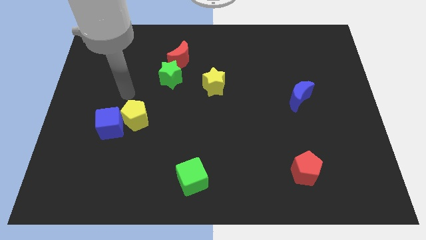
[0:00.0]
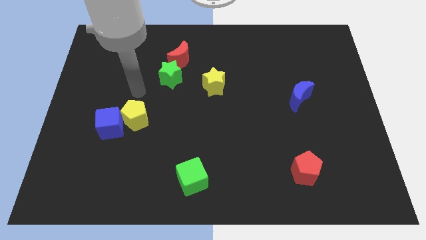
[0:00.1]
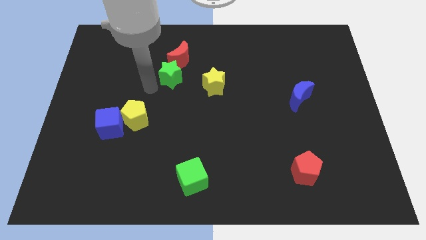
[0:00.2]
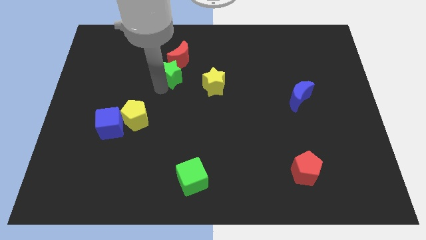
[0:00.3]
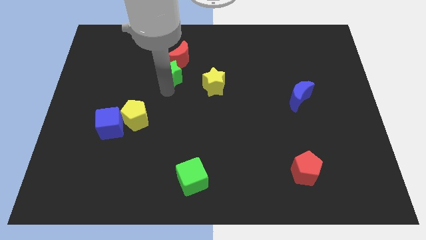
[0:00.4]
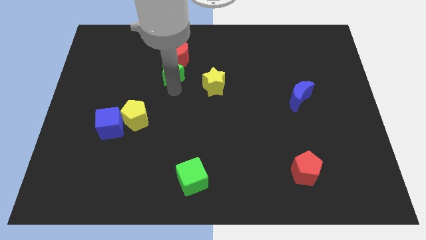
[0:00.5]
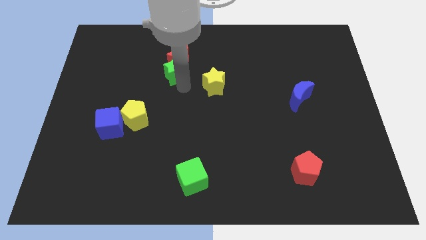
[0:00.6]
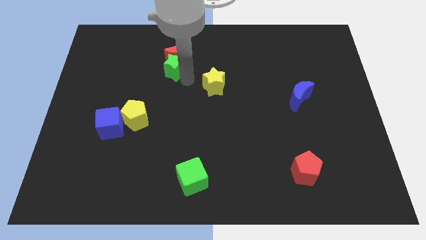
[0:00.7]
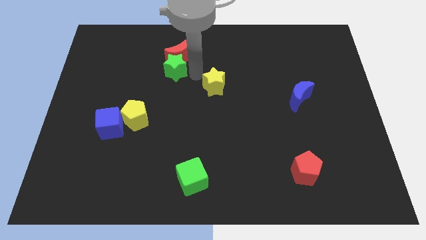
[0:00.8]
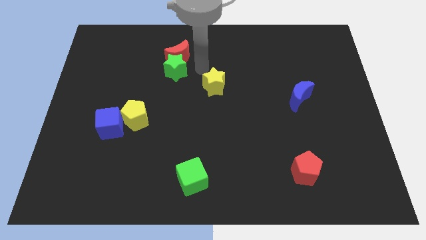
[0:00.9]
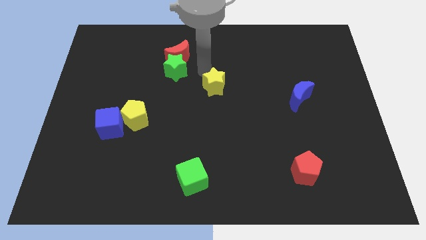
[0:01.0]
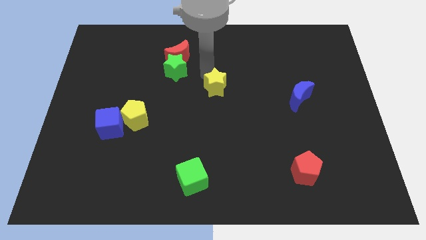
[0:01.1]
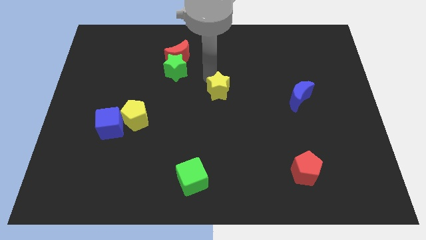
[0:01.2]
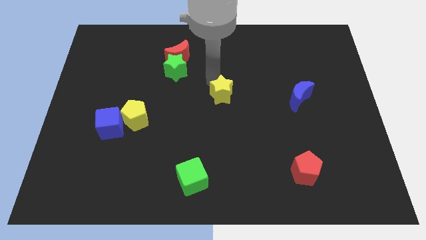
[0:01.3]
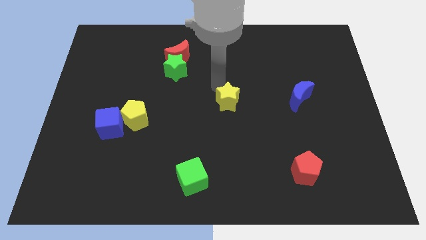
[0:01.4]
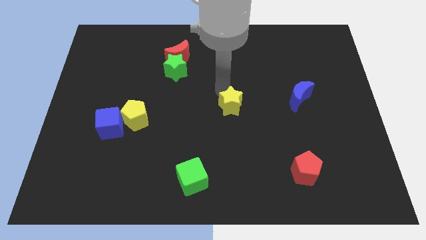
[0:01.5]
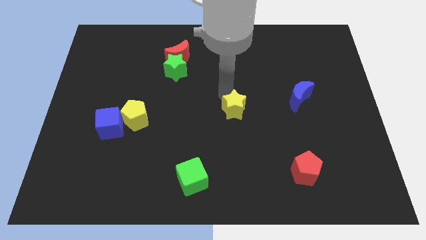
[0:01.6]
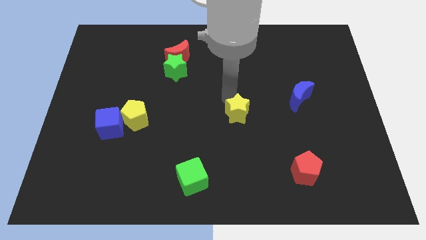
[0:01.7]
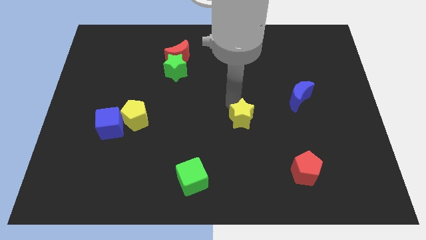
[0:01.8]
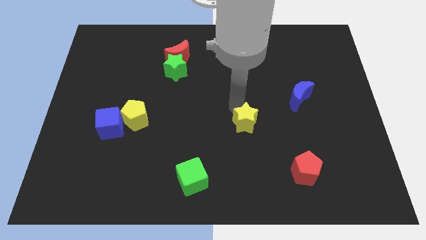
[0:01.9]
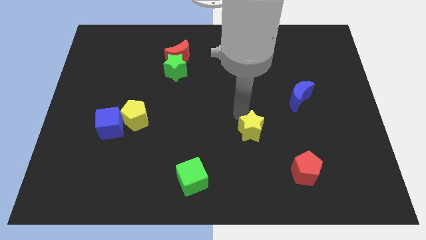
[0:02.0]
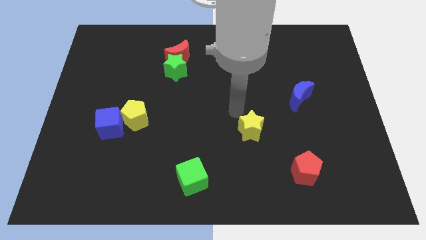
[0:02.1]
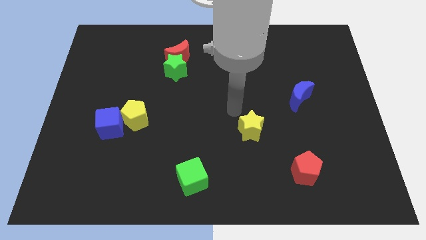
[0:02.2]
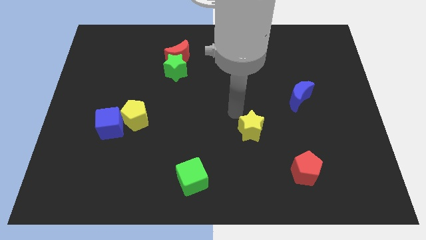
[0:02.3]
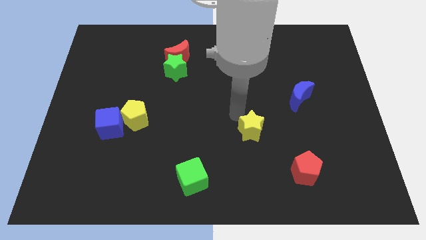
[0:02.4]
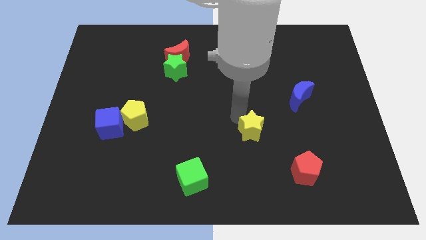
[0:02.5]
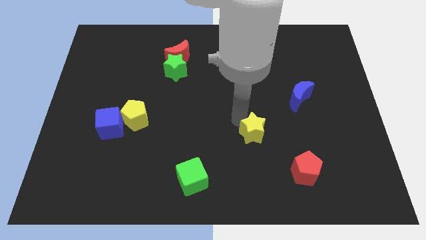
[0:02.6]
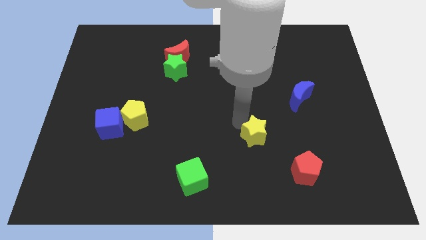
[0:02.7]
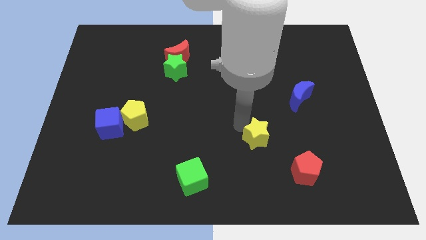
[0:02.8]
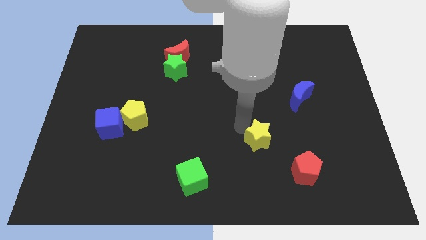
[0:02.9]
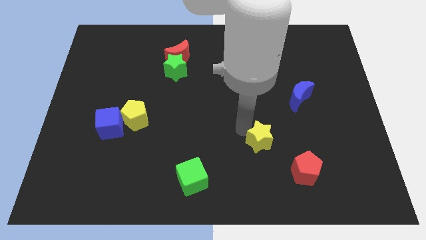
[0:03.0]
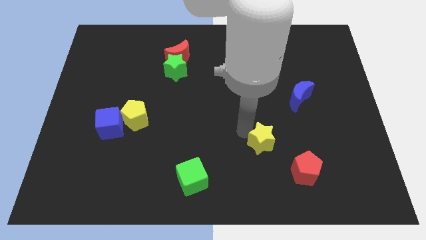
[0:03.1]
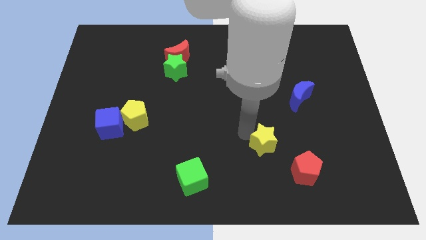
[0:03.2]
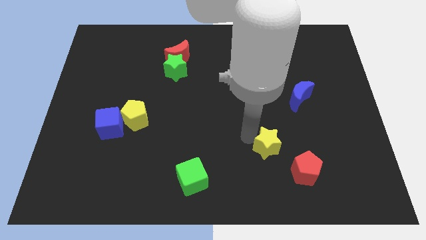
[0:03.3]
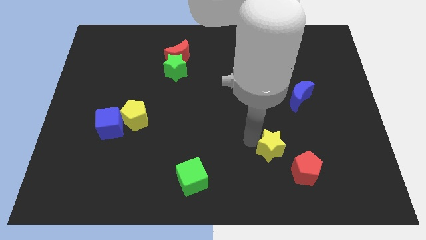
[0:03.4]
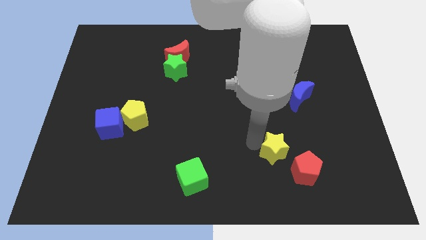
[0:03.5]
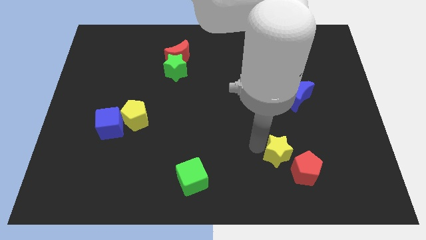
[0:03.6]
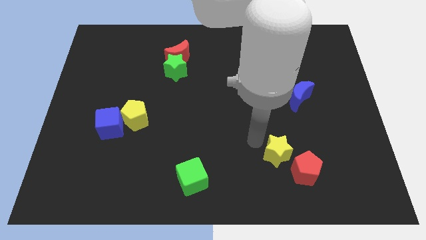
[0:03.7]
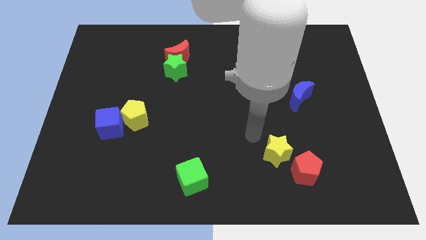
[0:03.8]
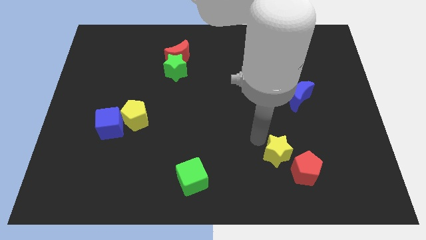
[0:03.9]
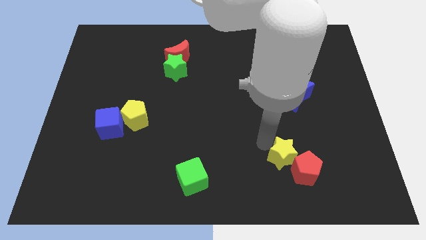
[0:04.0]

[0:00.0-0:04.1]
move the yellow star towards the red pentagon

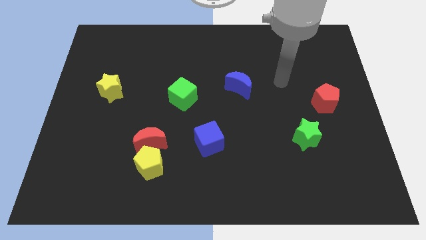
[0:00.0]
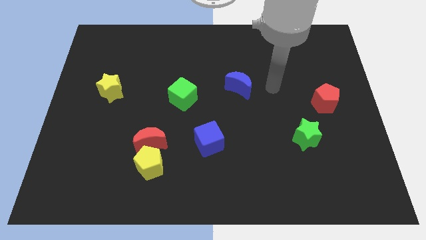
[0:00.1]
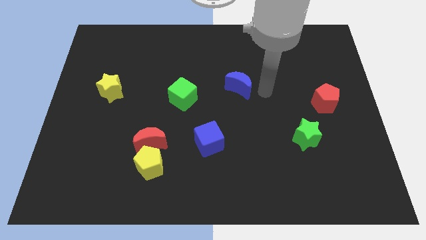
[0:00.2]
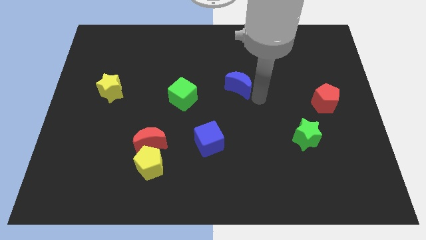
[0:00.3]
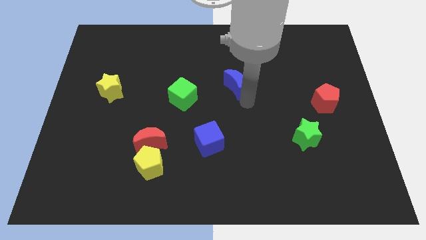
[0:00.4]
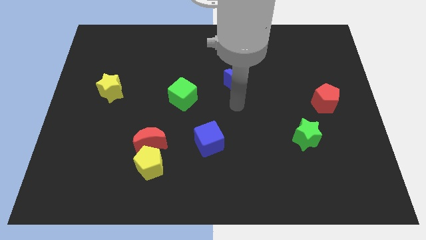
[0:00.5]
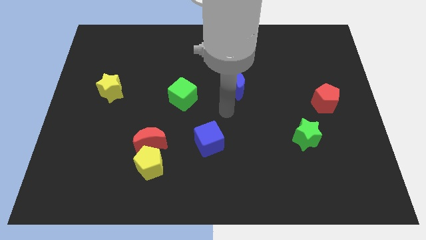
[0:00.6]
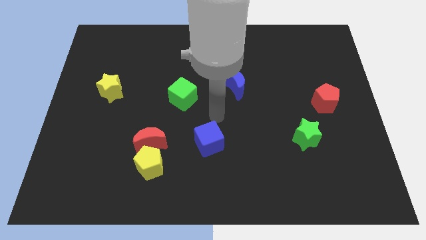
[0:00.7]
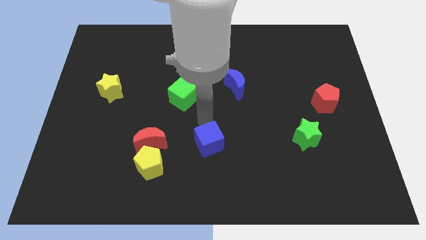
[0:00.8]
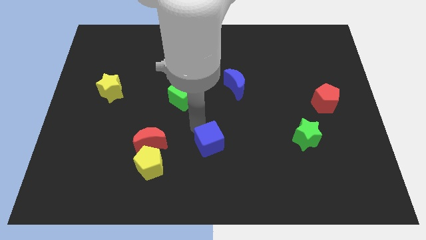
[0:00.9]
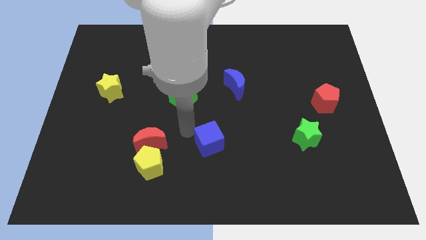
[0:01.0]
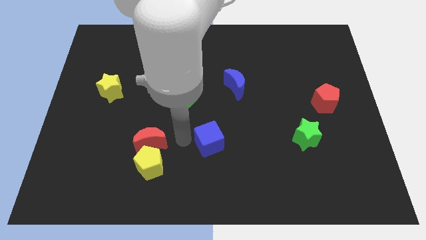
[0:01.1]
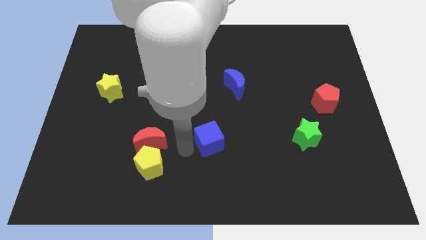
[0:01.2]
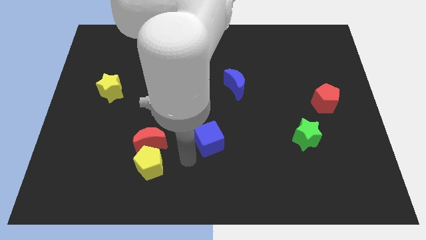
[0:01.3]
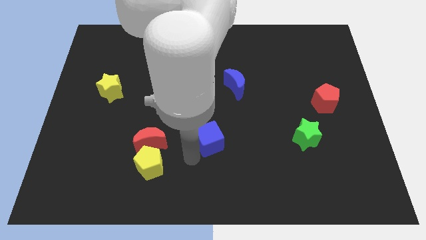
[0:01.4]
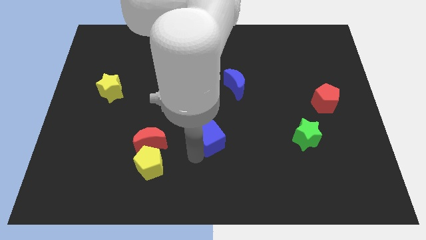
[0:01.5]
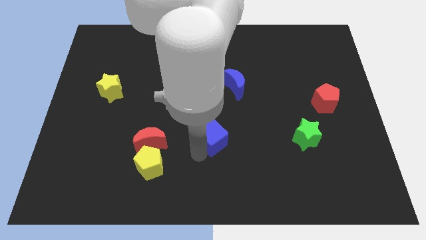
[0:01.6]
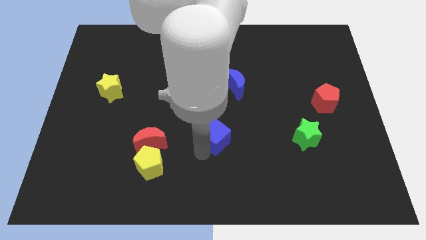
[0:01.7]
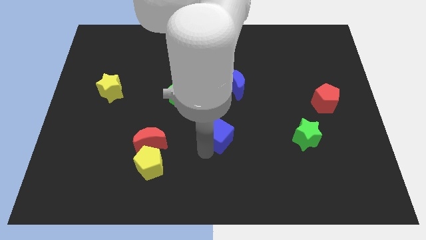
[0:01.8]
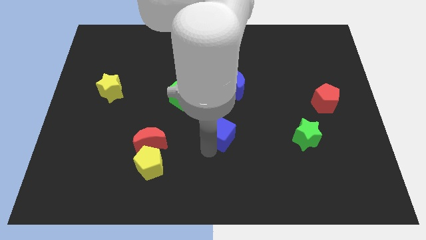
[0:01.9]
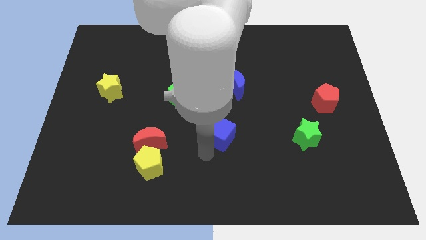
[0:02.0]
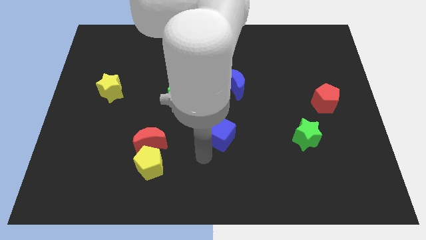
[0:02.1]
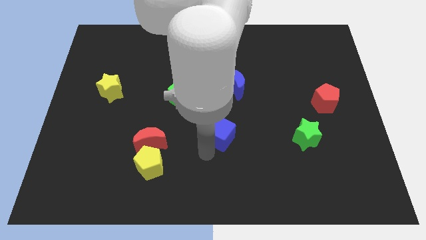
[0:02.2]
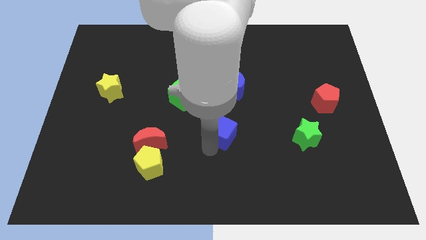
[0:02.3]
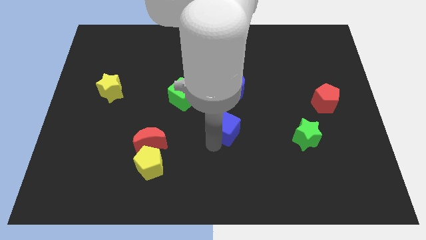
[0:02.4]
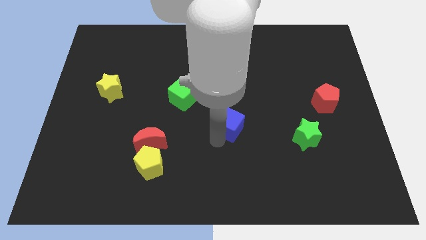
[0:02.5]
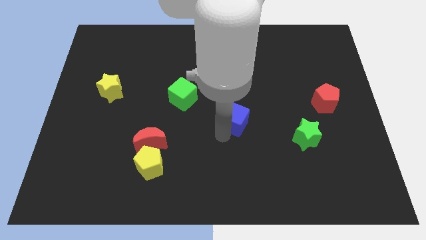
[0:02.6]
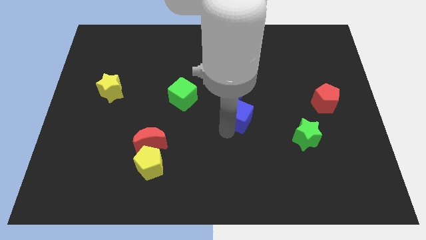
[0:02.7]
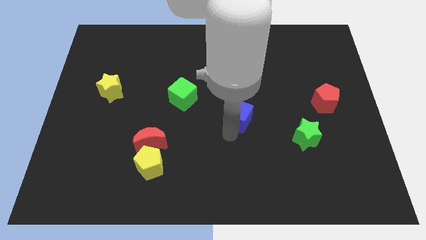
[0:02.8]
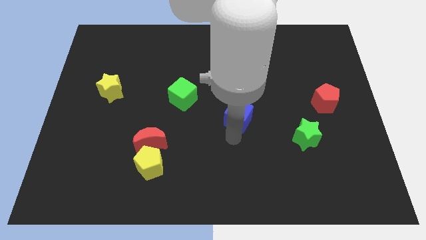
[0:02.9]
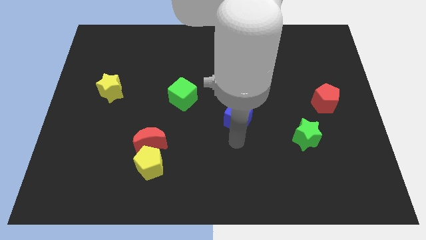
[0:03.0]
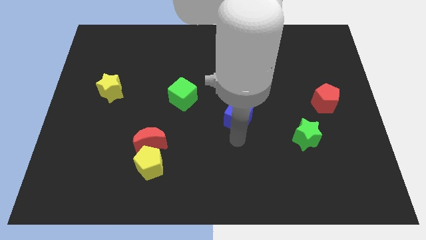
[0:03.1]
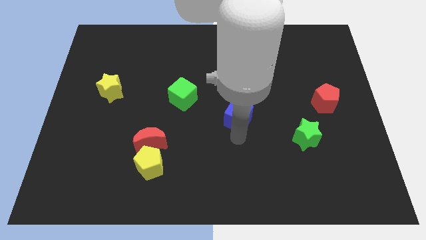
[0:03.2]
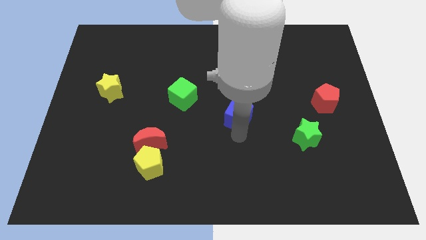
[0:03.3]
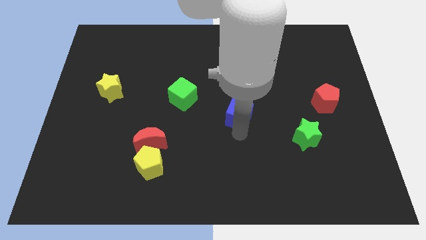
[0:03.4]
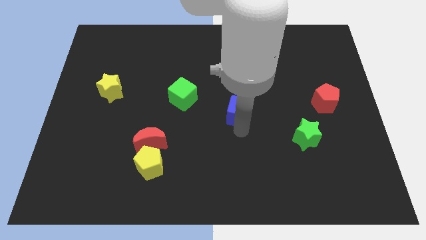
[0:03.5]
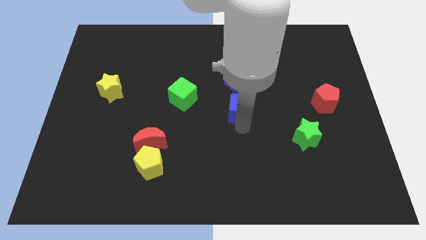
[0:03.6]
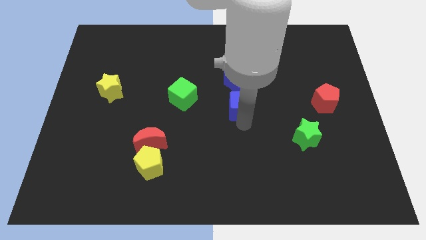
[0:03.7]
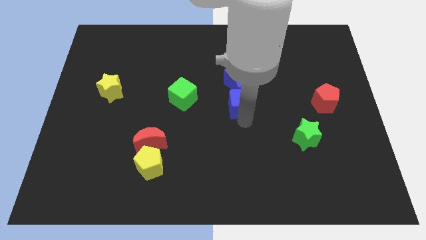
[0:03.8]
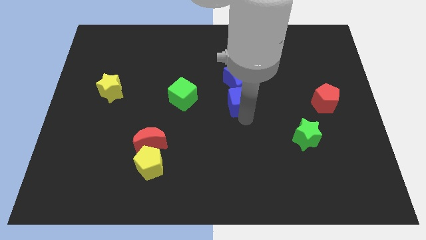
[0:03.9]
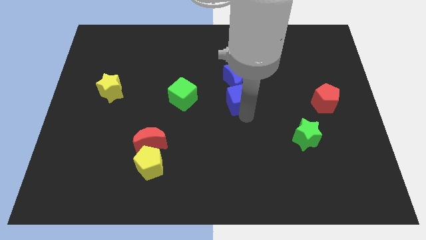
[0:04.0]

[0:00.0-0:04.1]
push the blue cube close to the blue moon
